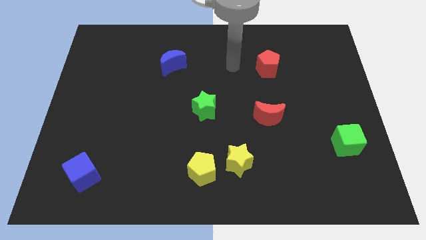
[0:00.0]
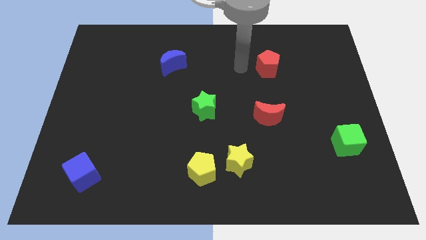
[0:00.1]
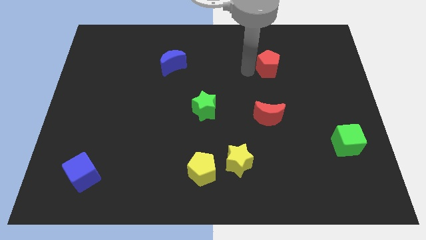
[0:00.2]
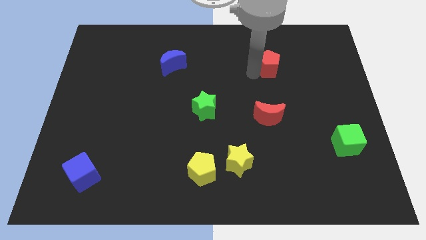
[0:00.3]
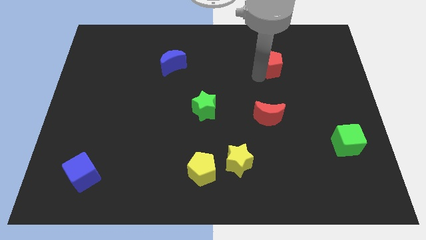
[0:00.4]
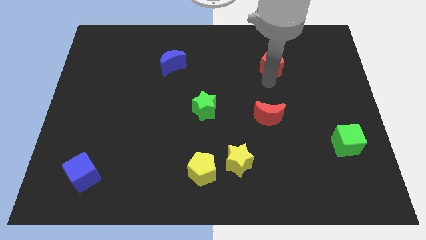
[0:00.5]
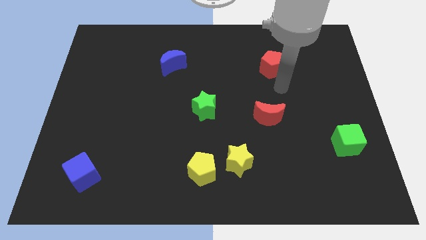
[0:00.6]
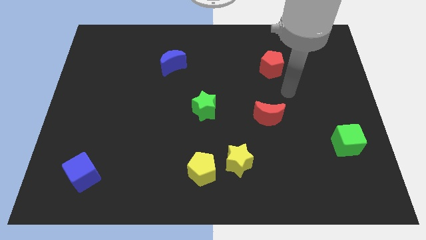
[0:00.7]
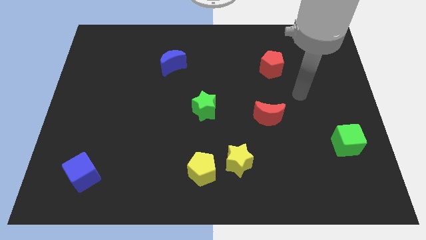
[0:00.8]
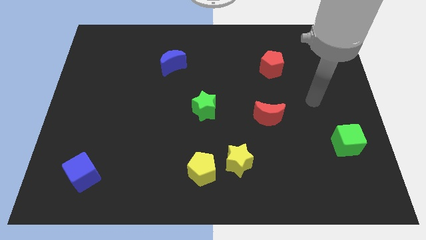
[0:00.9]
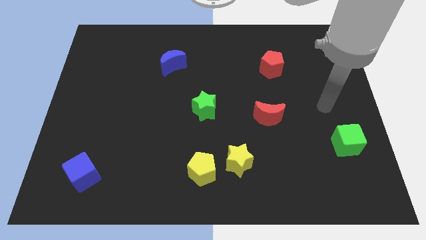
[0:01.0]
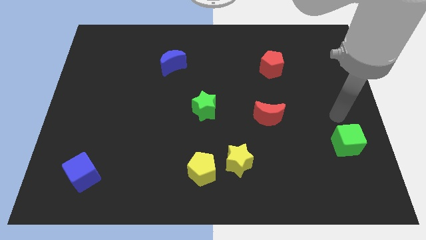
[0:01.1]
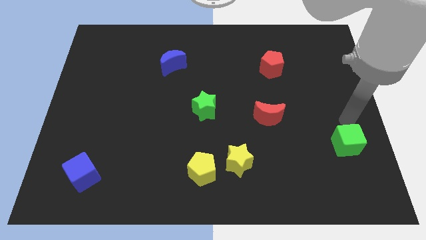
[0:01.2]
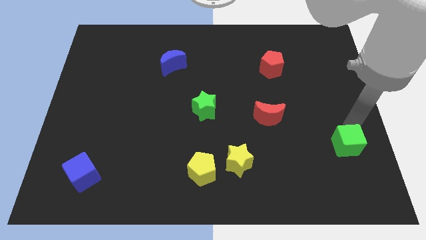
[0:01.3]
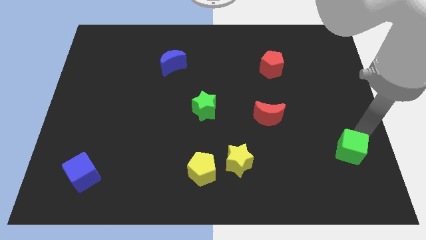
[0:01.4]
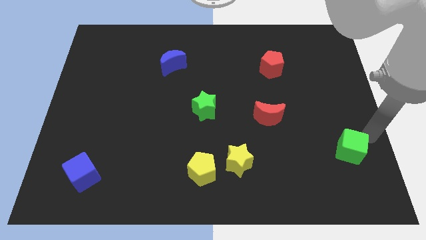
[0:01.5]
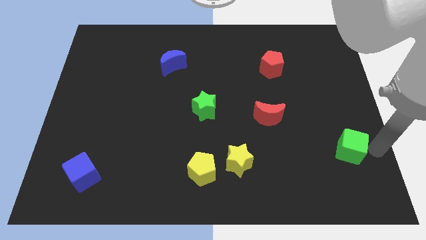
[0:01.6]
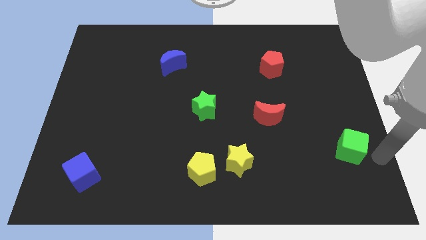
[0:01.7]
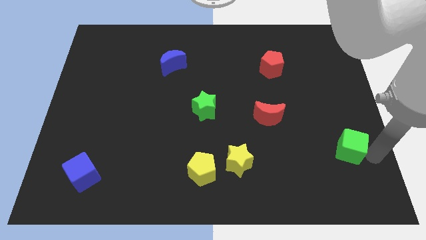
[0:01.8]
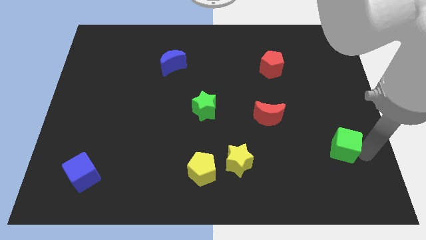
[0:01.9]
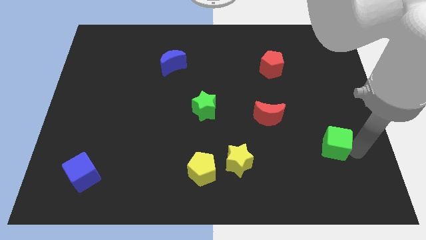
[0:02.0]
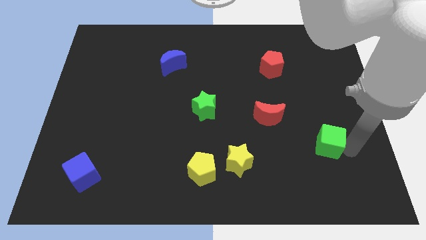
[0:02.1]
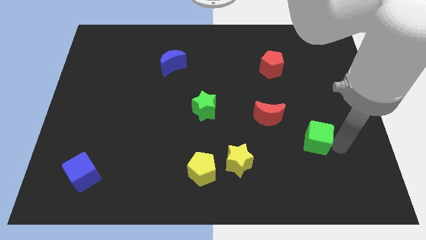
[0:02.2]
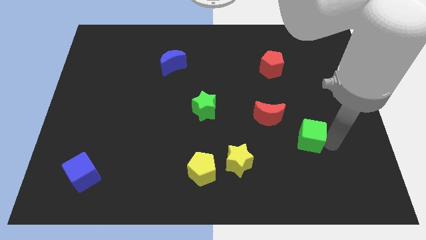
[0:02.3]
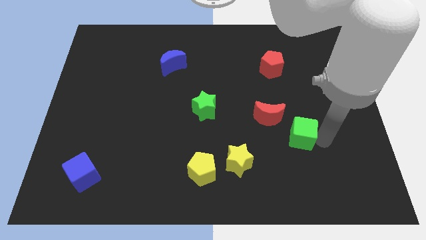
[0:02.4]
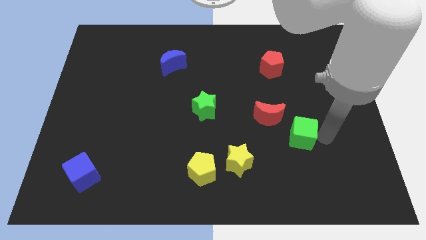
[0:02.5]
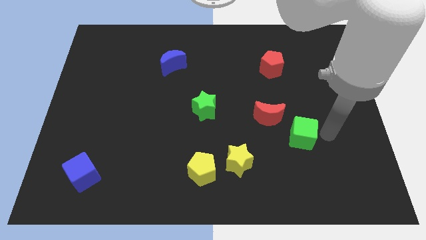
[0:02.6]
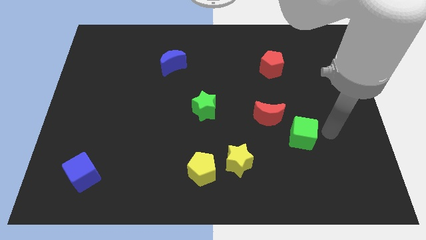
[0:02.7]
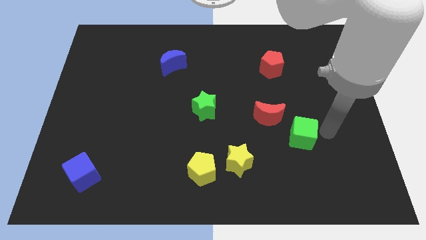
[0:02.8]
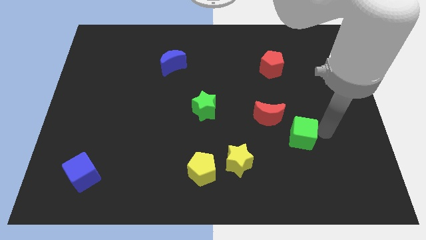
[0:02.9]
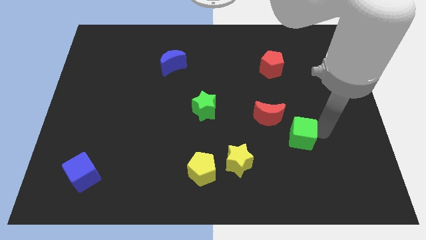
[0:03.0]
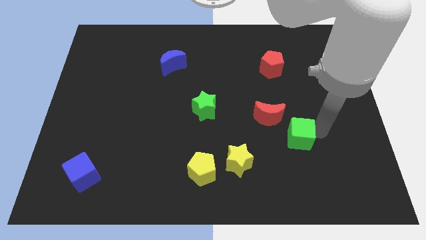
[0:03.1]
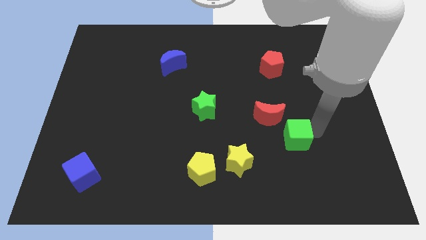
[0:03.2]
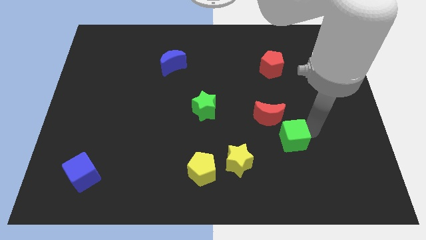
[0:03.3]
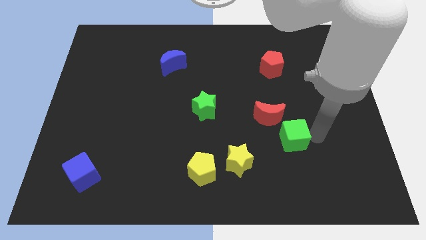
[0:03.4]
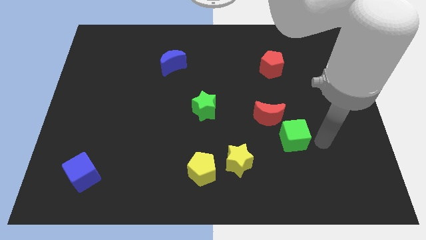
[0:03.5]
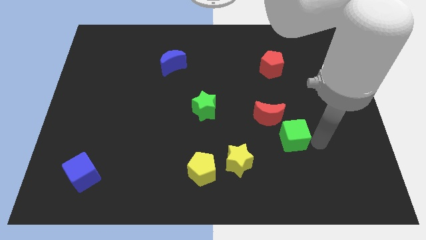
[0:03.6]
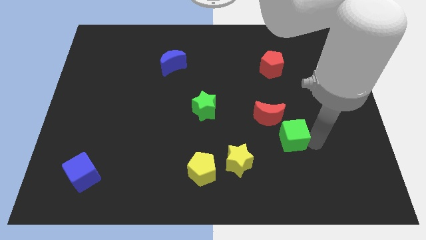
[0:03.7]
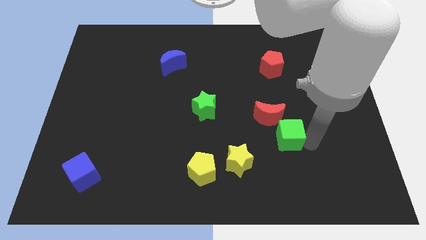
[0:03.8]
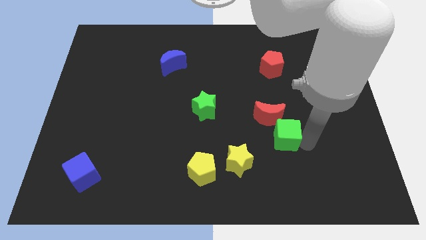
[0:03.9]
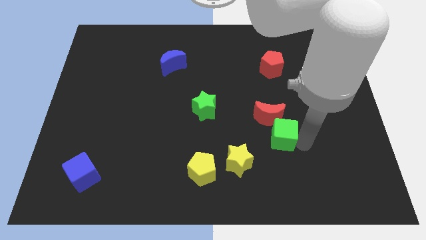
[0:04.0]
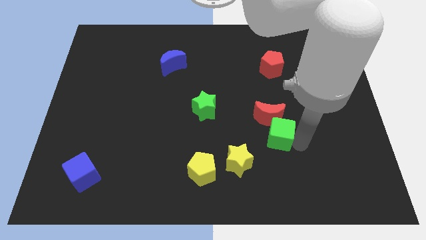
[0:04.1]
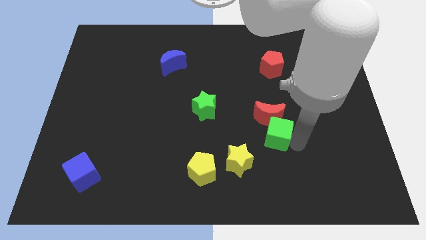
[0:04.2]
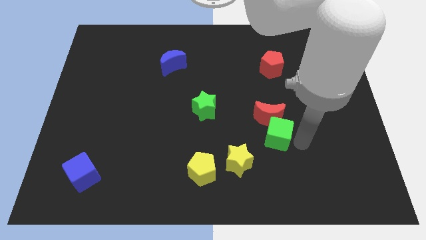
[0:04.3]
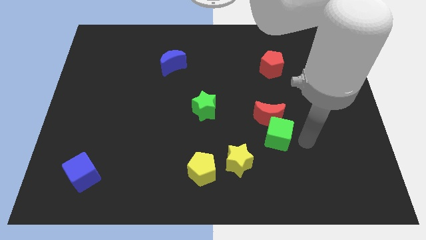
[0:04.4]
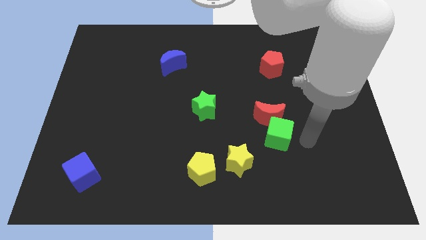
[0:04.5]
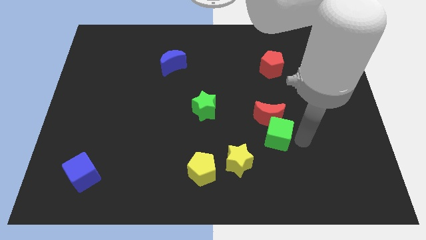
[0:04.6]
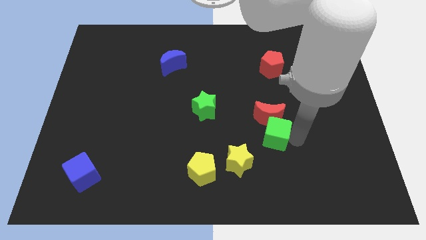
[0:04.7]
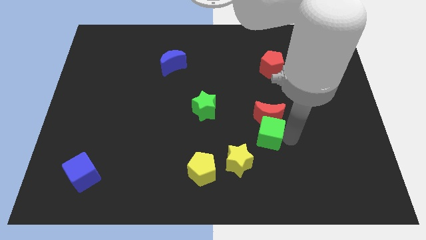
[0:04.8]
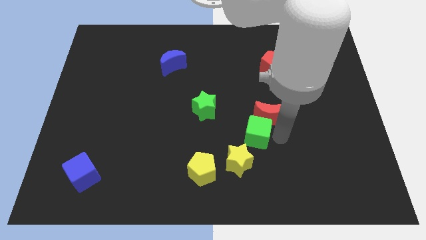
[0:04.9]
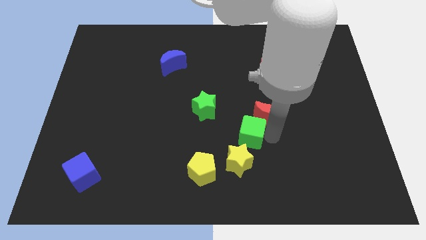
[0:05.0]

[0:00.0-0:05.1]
push the green cube to the bottom right of the green star

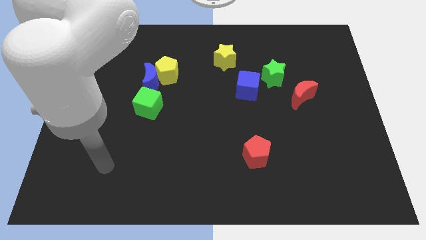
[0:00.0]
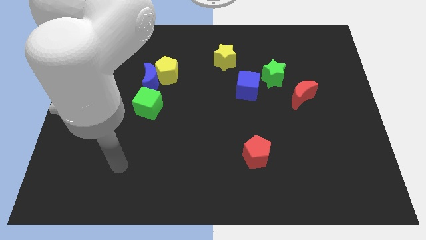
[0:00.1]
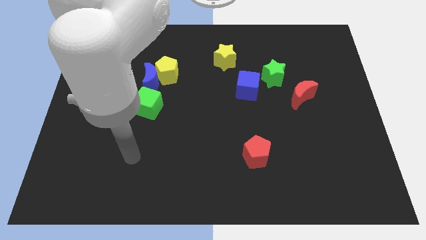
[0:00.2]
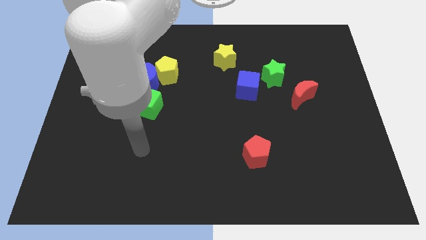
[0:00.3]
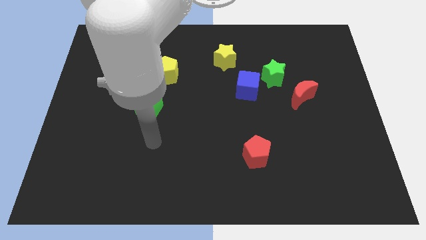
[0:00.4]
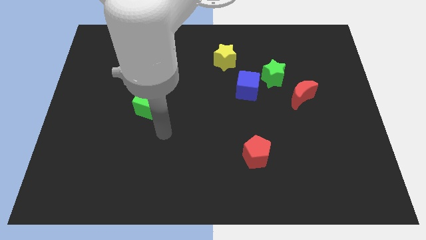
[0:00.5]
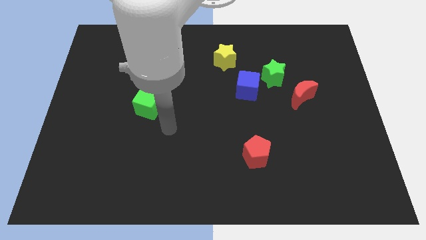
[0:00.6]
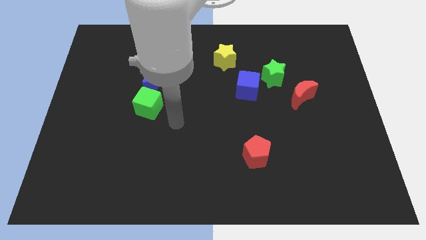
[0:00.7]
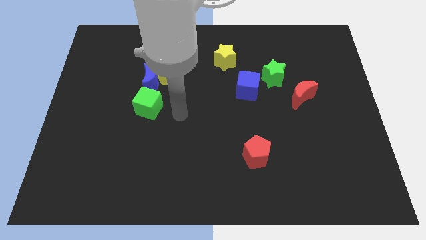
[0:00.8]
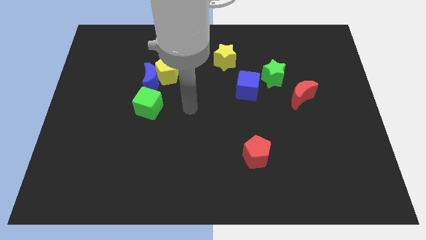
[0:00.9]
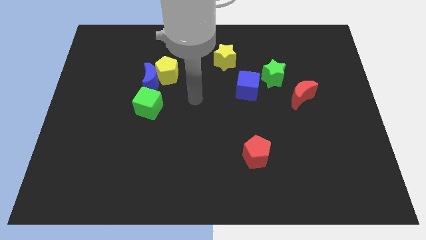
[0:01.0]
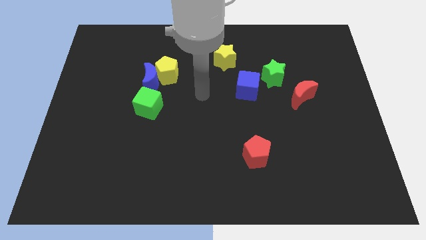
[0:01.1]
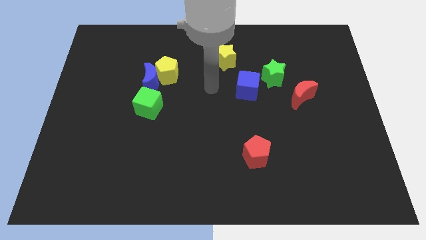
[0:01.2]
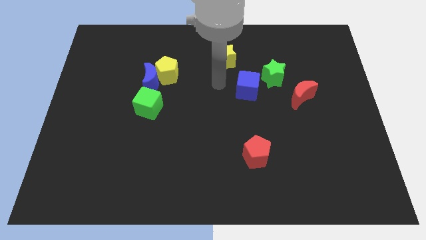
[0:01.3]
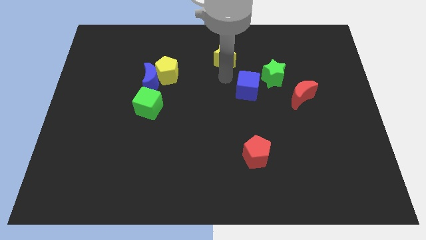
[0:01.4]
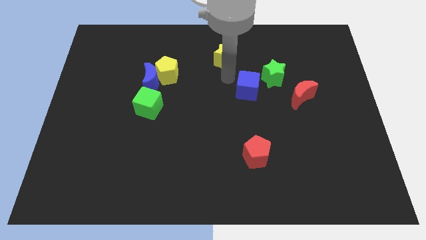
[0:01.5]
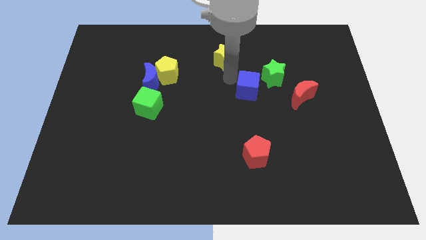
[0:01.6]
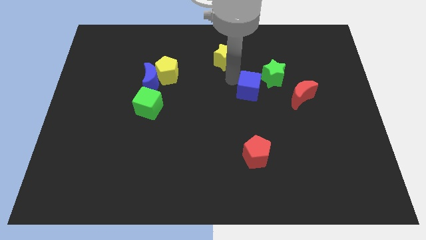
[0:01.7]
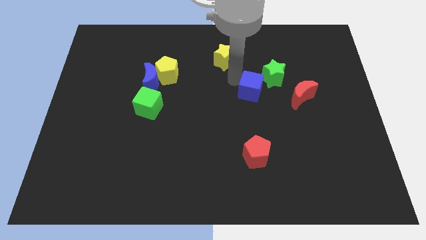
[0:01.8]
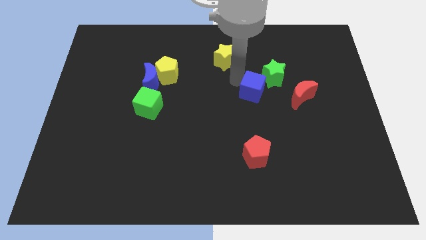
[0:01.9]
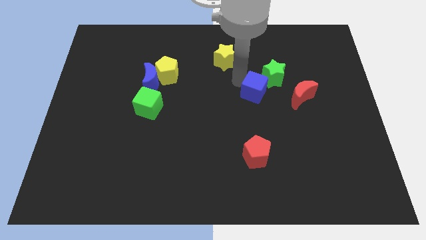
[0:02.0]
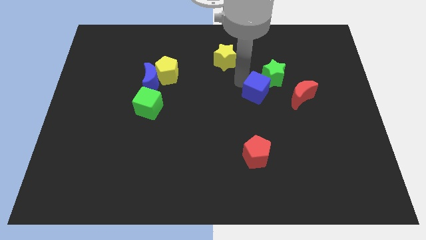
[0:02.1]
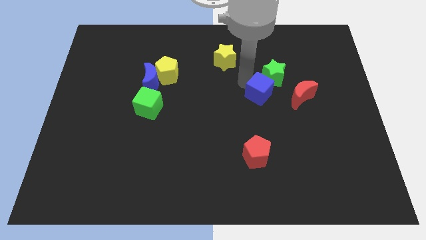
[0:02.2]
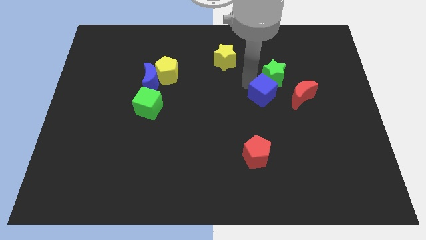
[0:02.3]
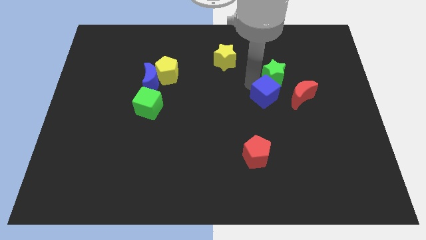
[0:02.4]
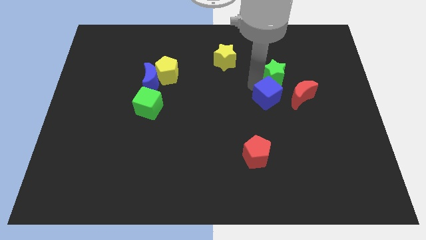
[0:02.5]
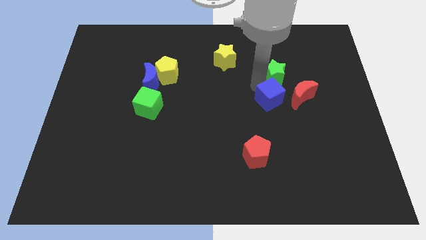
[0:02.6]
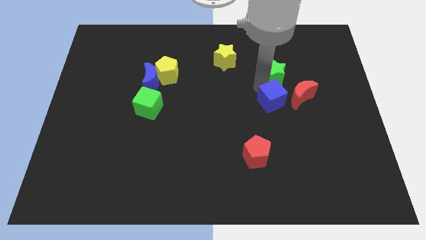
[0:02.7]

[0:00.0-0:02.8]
slide the blue cube to the bottom left of the red moon
